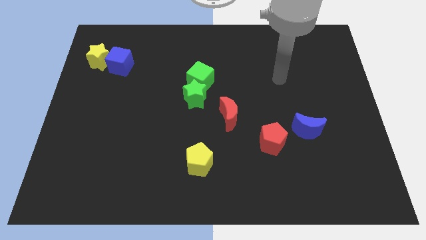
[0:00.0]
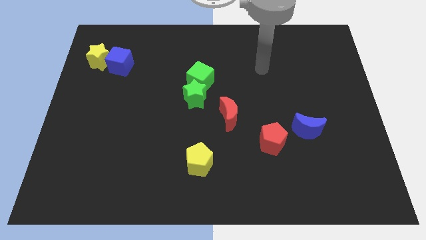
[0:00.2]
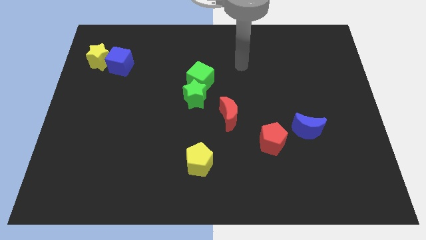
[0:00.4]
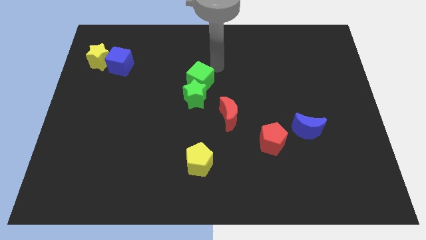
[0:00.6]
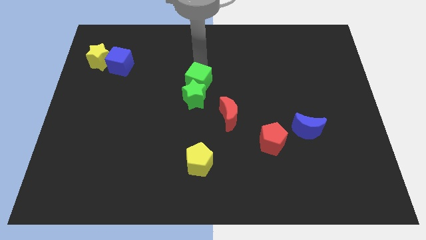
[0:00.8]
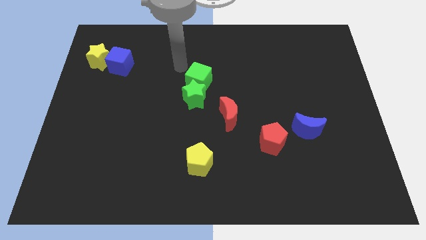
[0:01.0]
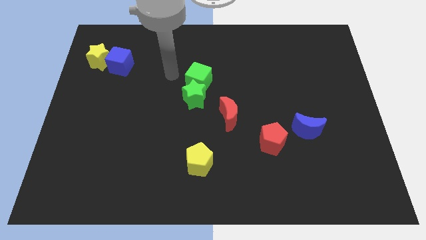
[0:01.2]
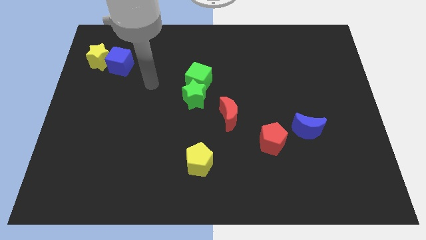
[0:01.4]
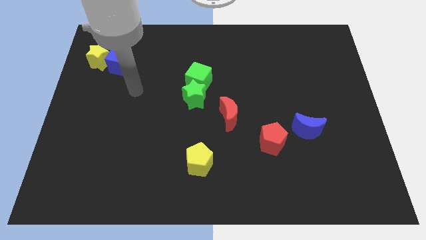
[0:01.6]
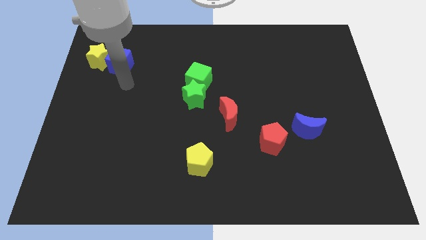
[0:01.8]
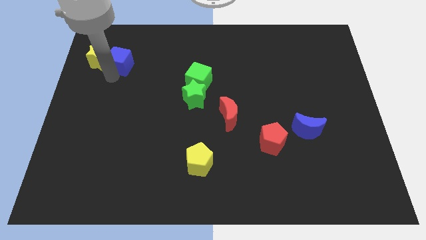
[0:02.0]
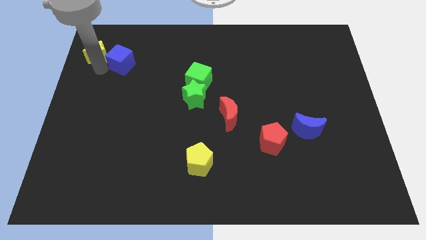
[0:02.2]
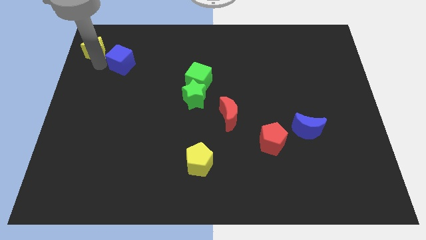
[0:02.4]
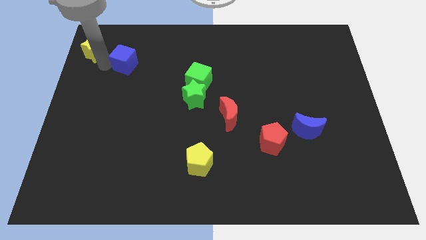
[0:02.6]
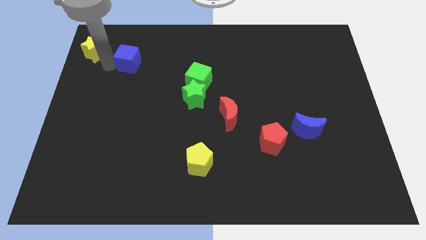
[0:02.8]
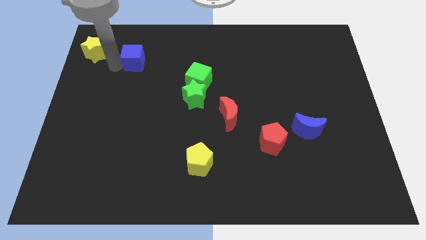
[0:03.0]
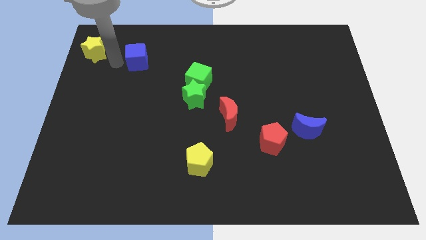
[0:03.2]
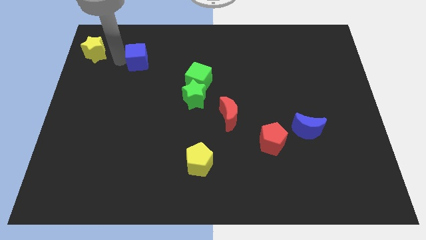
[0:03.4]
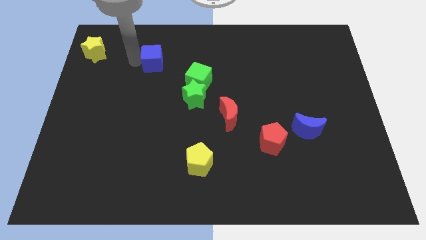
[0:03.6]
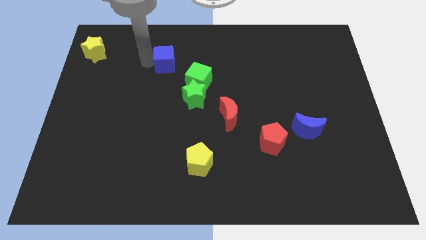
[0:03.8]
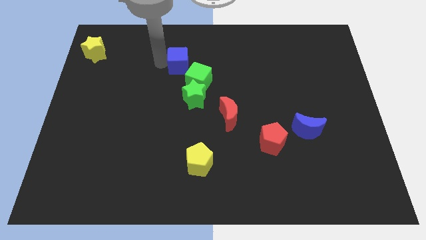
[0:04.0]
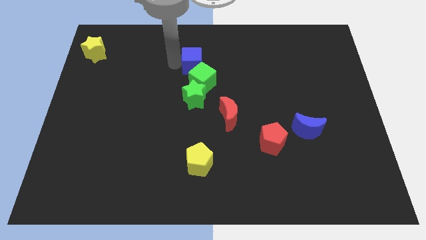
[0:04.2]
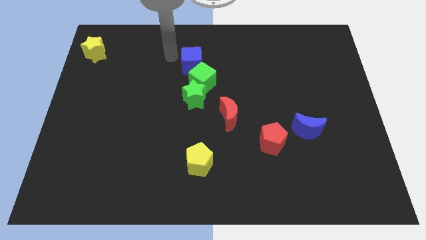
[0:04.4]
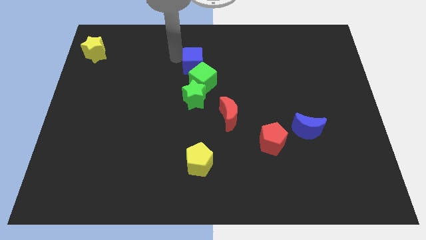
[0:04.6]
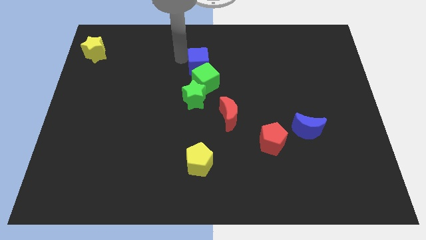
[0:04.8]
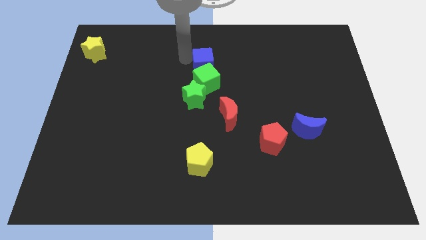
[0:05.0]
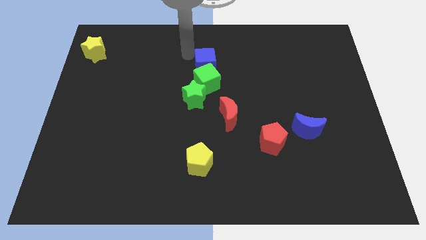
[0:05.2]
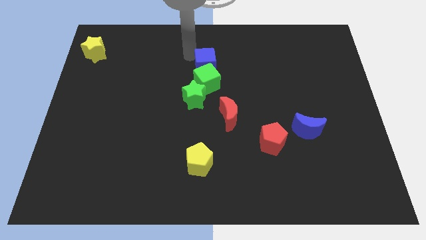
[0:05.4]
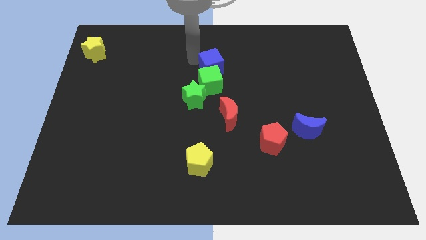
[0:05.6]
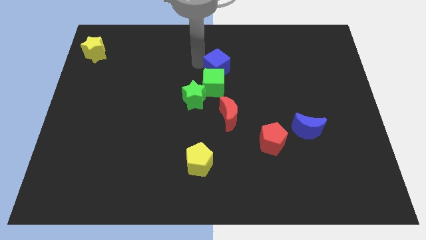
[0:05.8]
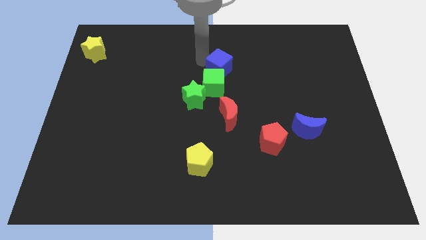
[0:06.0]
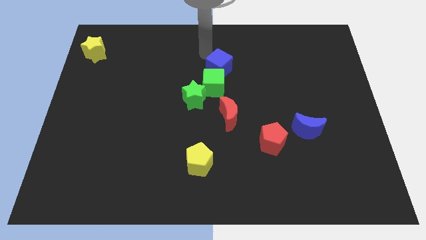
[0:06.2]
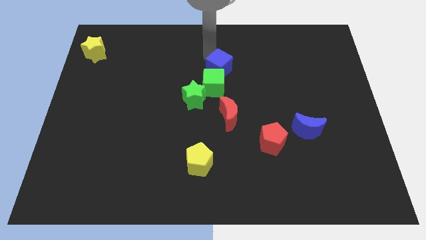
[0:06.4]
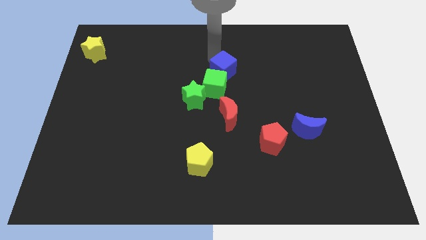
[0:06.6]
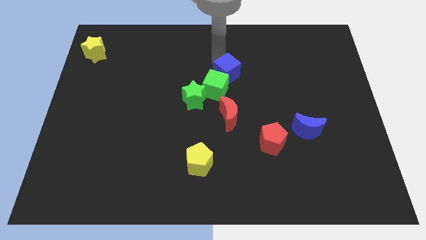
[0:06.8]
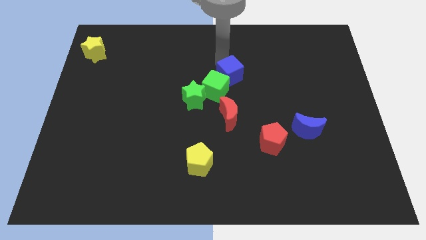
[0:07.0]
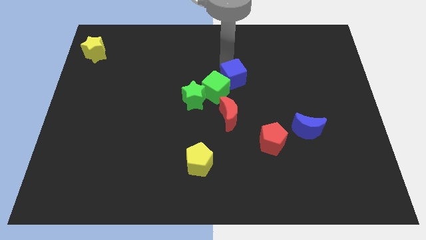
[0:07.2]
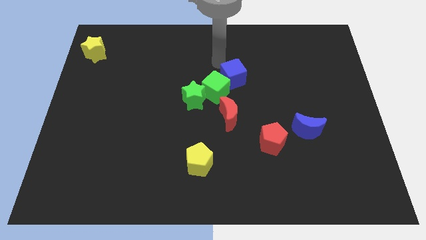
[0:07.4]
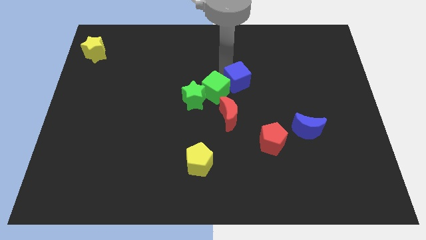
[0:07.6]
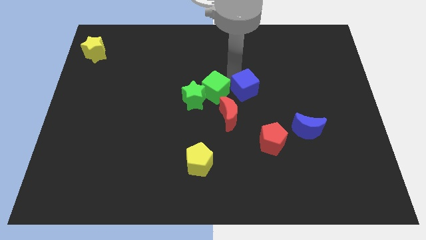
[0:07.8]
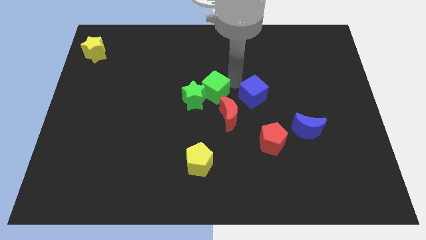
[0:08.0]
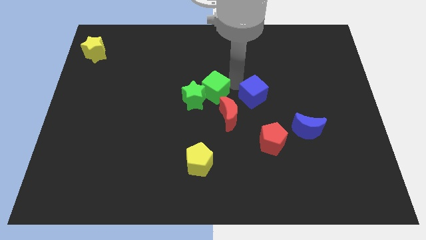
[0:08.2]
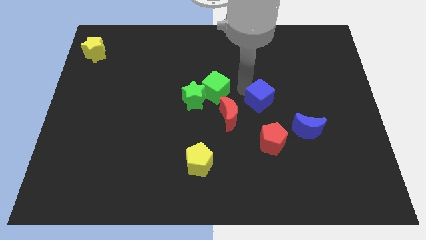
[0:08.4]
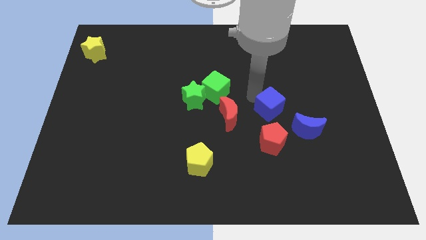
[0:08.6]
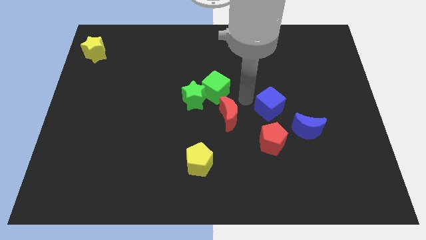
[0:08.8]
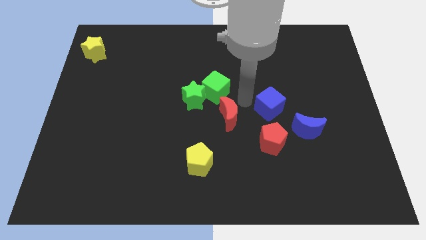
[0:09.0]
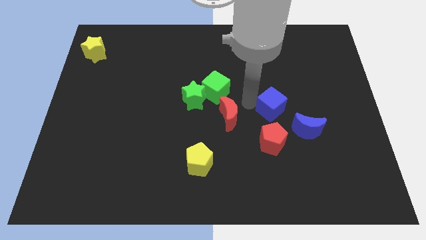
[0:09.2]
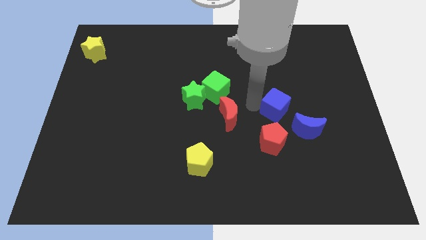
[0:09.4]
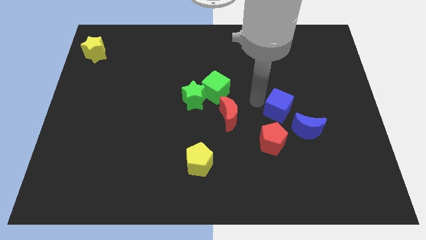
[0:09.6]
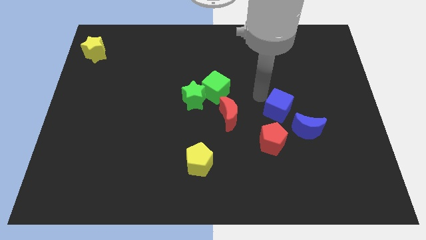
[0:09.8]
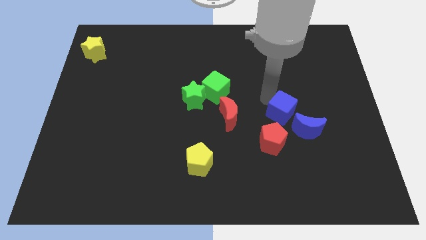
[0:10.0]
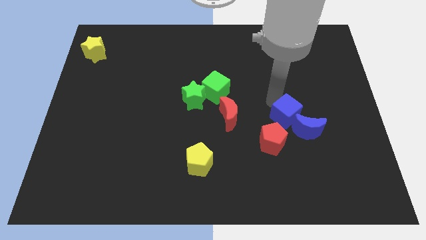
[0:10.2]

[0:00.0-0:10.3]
push the blue cube close to the blue moon

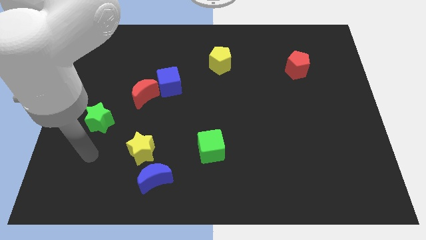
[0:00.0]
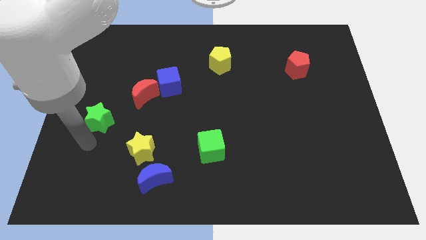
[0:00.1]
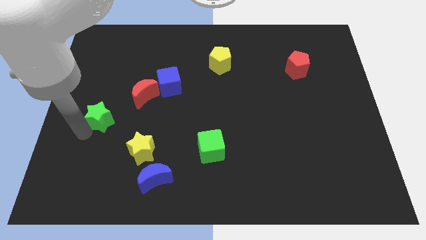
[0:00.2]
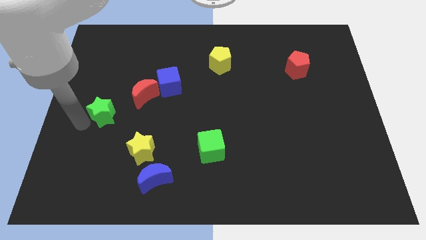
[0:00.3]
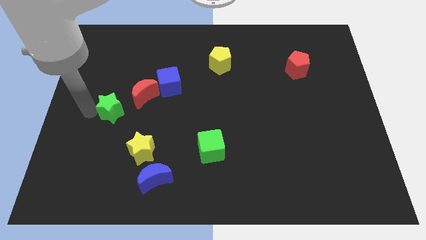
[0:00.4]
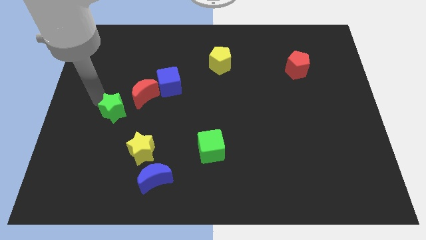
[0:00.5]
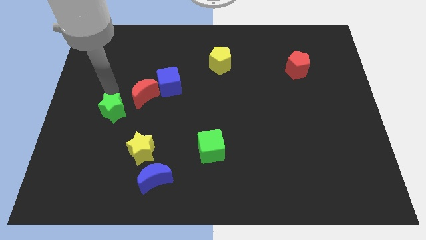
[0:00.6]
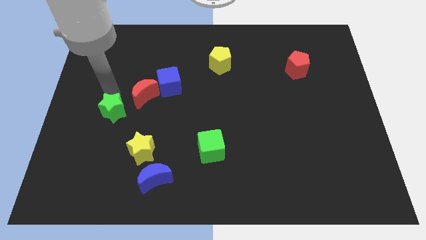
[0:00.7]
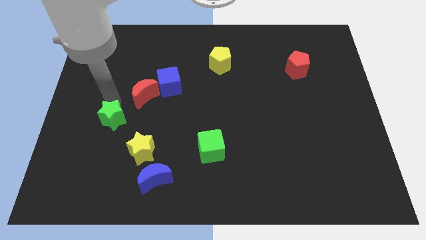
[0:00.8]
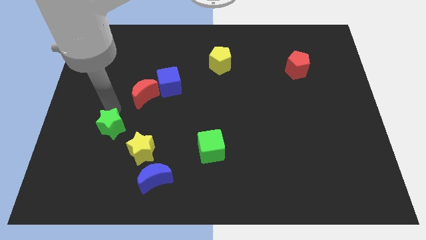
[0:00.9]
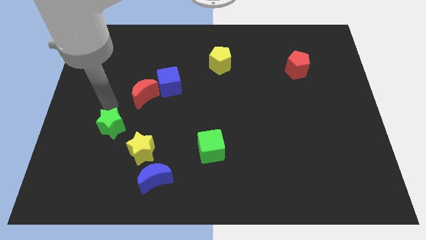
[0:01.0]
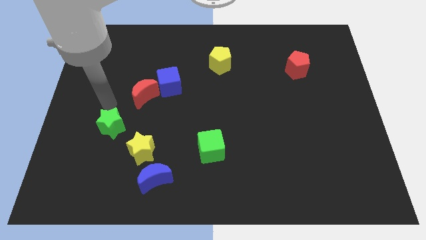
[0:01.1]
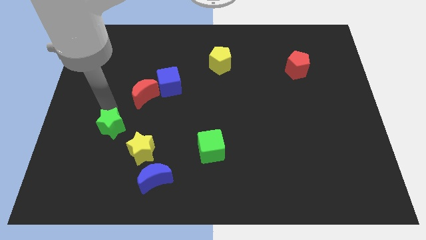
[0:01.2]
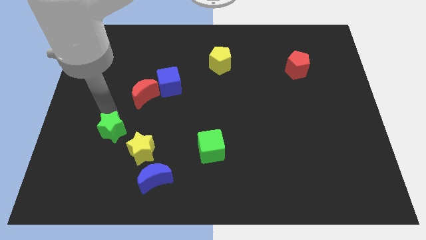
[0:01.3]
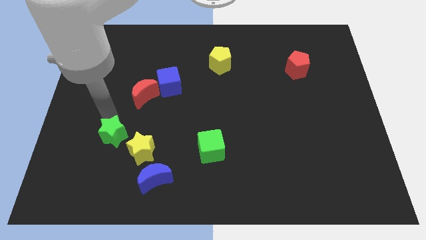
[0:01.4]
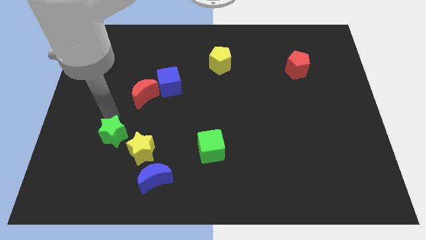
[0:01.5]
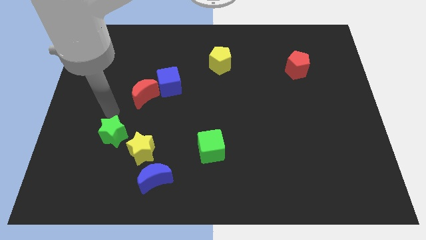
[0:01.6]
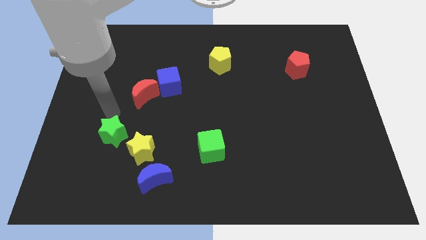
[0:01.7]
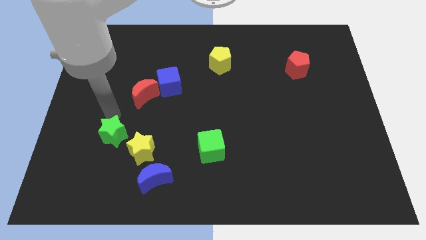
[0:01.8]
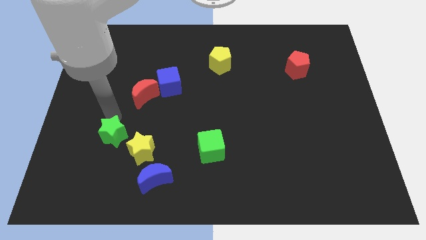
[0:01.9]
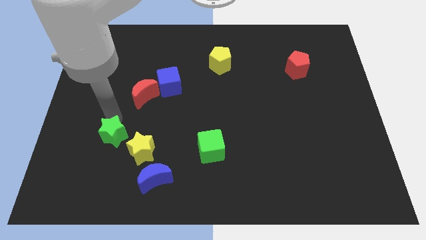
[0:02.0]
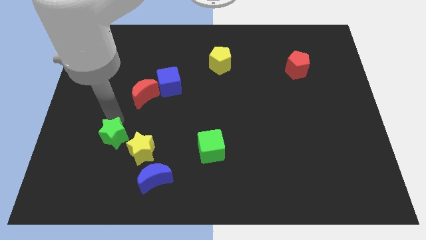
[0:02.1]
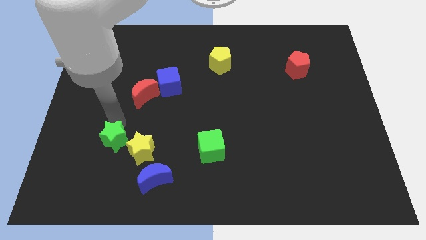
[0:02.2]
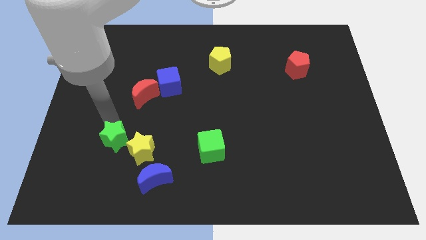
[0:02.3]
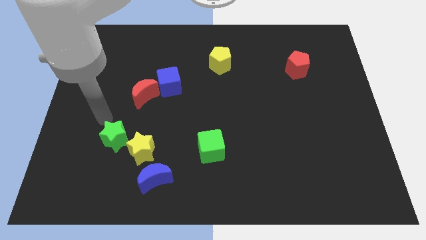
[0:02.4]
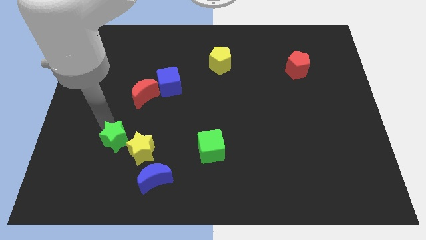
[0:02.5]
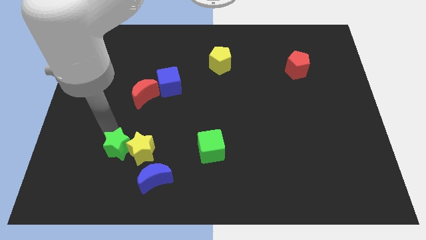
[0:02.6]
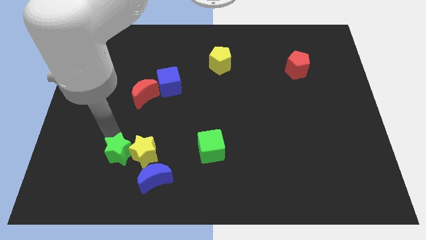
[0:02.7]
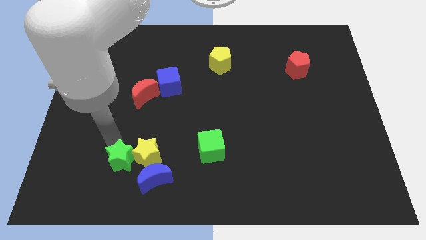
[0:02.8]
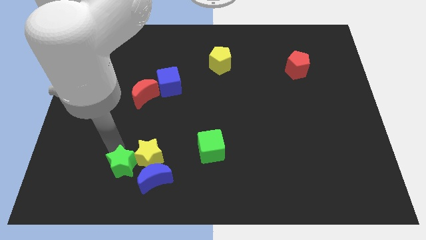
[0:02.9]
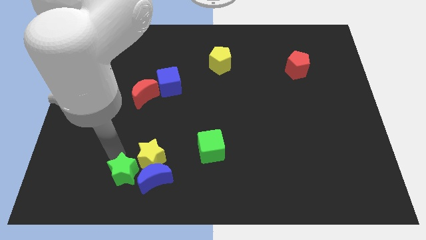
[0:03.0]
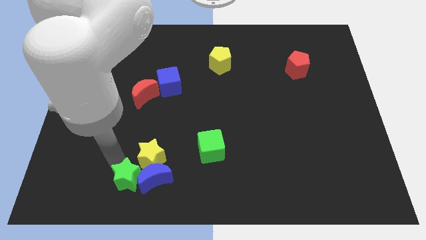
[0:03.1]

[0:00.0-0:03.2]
move the green star towards the blue moon
